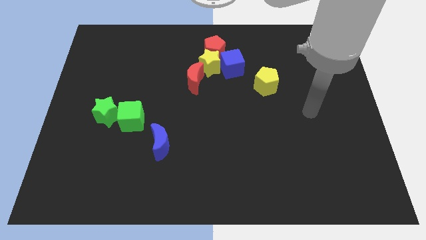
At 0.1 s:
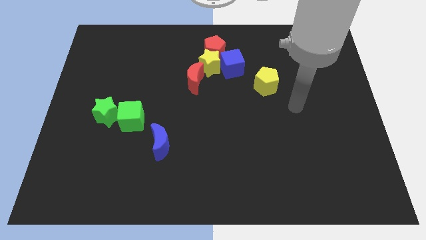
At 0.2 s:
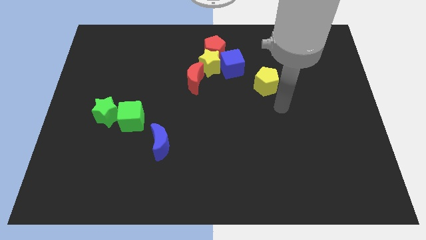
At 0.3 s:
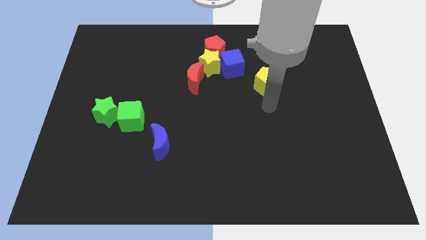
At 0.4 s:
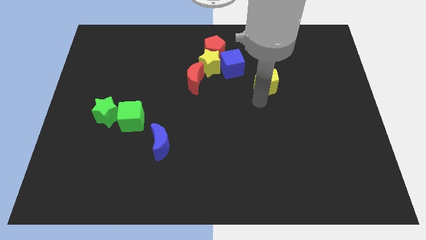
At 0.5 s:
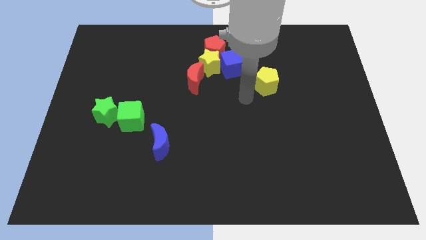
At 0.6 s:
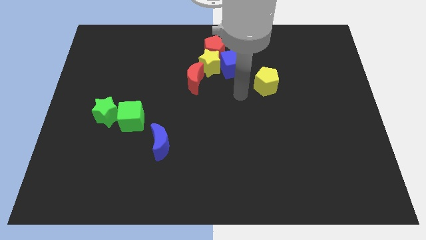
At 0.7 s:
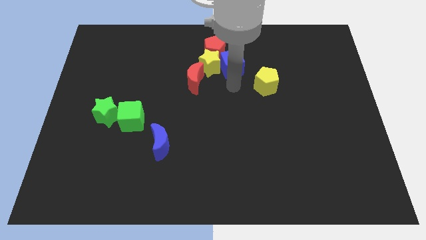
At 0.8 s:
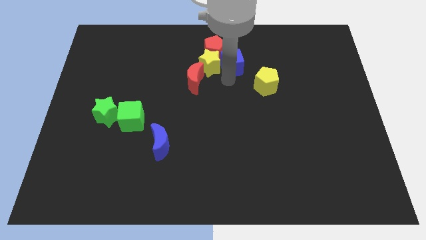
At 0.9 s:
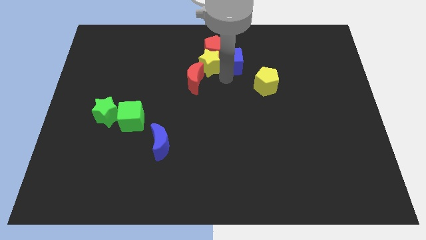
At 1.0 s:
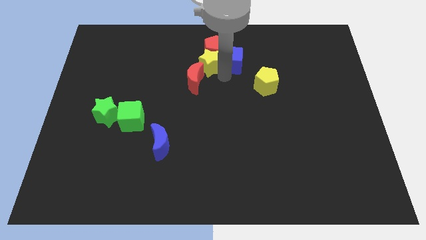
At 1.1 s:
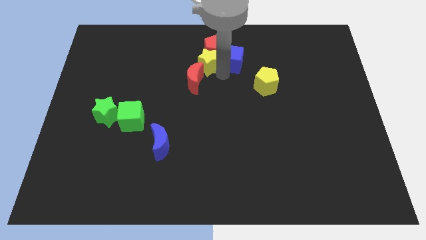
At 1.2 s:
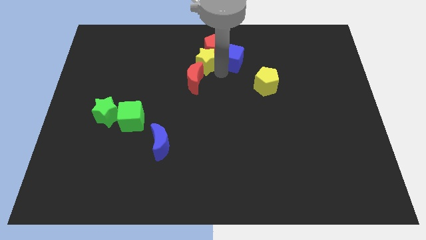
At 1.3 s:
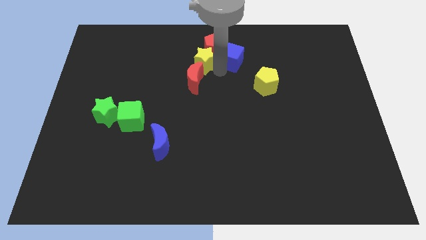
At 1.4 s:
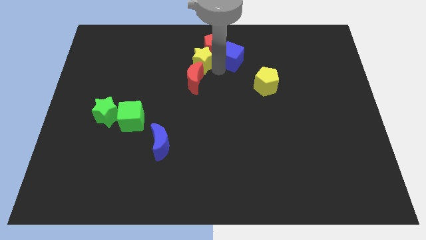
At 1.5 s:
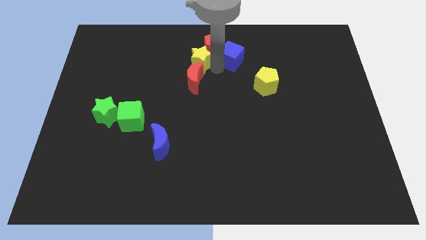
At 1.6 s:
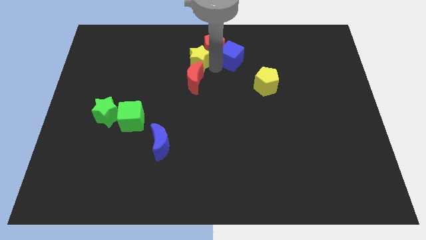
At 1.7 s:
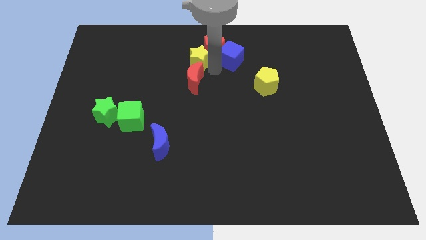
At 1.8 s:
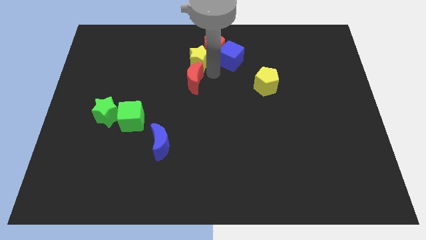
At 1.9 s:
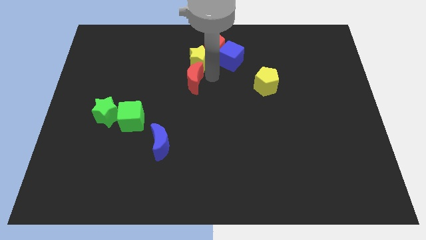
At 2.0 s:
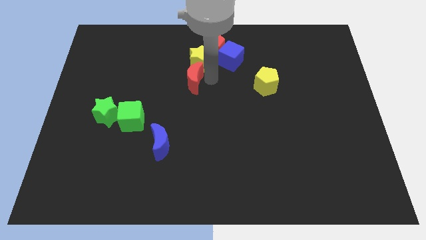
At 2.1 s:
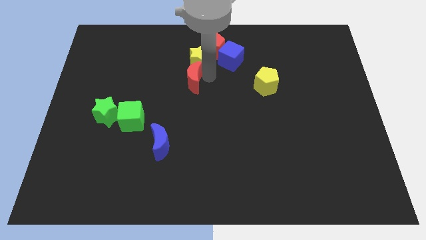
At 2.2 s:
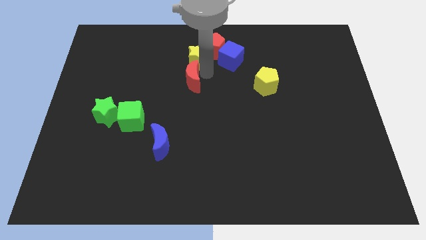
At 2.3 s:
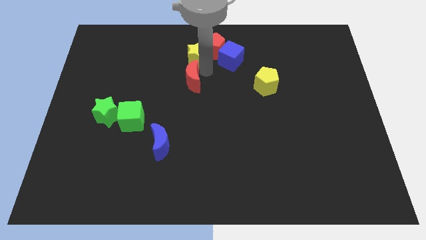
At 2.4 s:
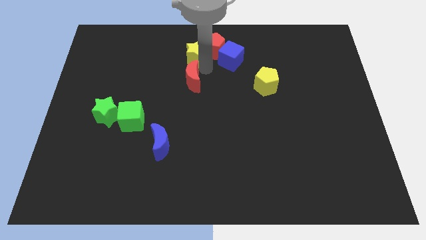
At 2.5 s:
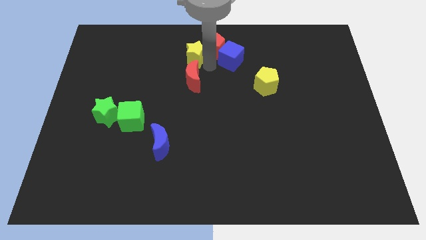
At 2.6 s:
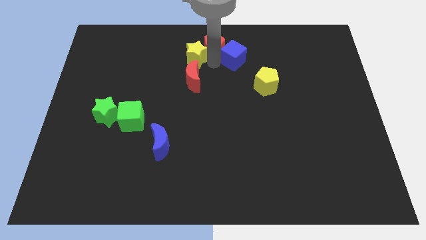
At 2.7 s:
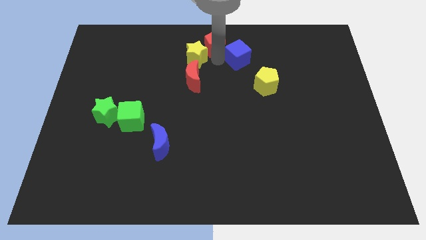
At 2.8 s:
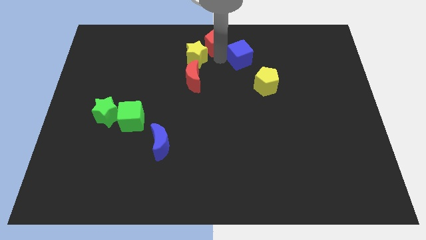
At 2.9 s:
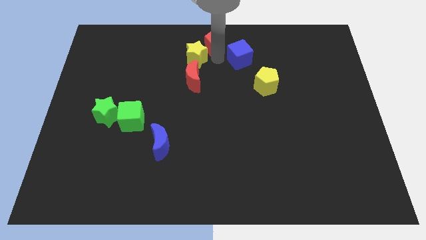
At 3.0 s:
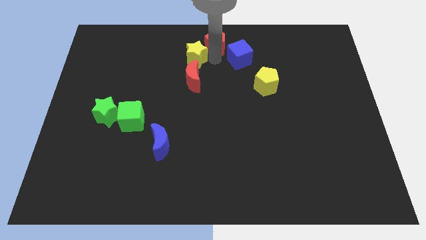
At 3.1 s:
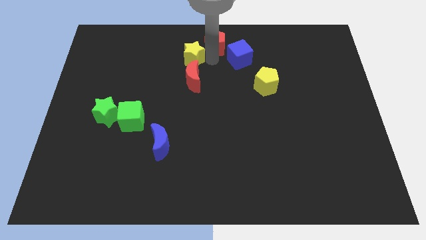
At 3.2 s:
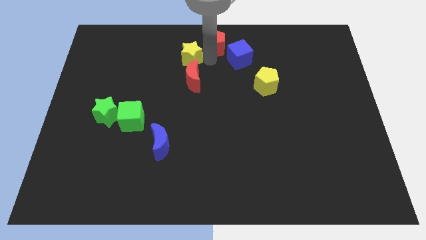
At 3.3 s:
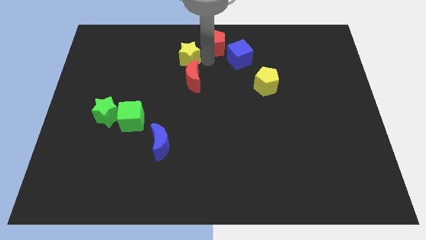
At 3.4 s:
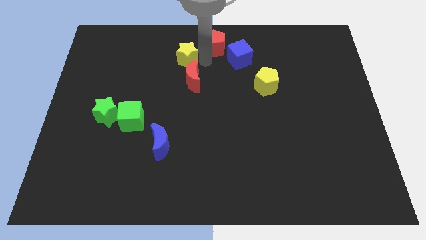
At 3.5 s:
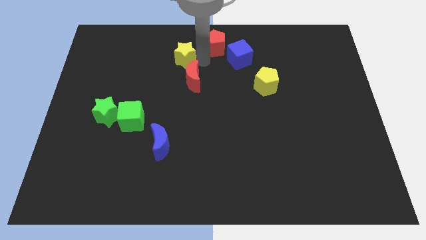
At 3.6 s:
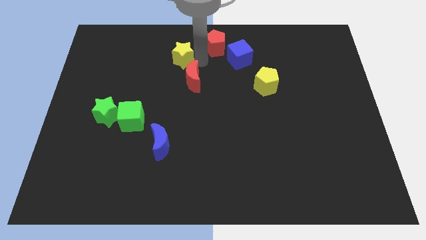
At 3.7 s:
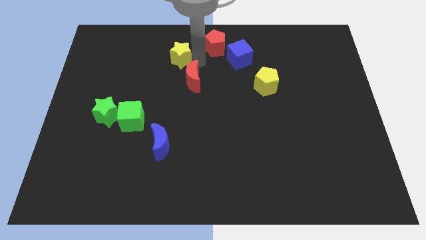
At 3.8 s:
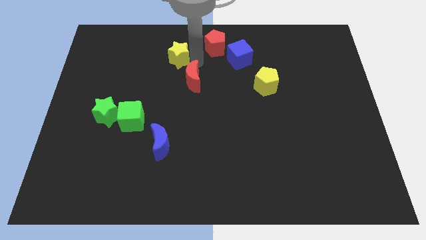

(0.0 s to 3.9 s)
move the yellow star away from the group of blocks

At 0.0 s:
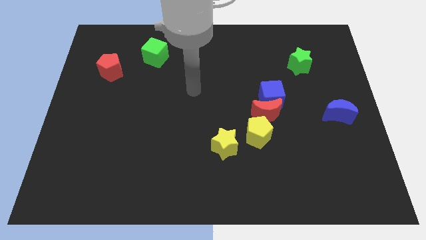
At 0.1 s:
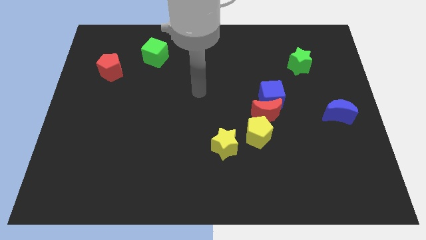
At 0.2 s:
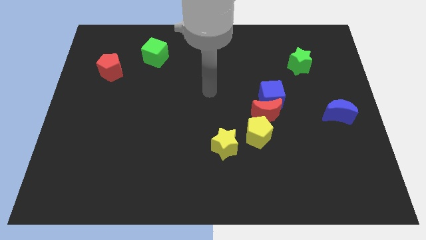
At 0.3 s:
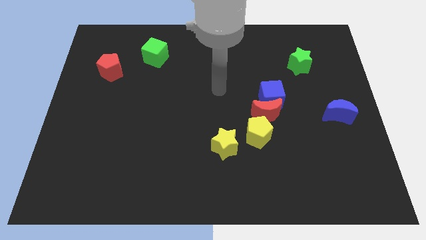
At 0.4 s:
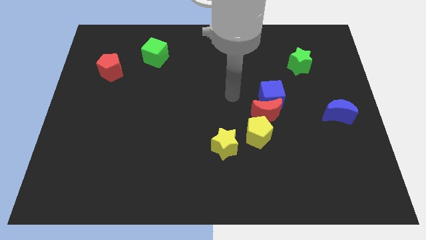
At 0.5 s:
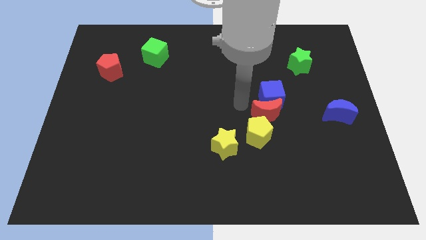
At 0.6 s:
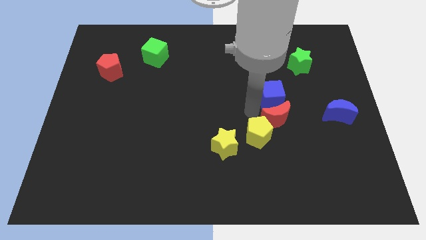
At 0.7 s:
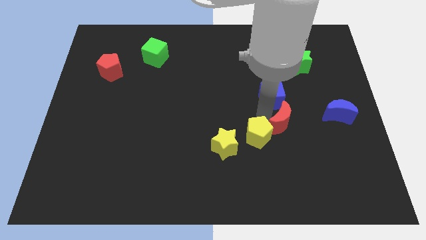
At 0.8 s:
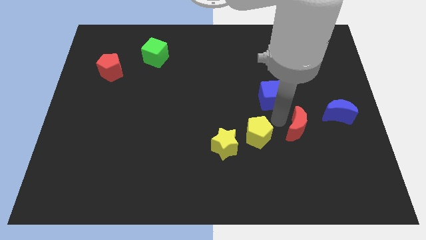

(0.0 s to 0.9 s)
pull the blue cube apart from the red moon

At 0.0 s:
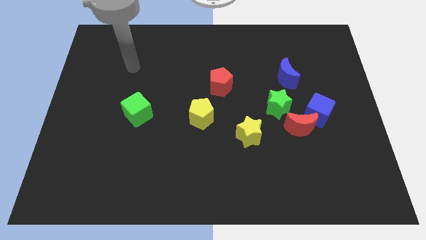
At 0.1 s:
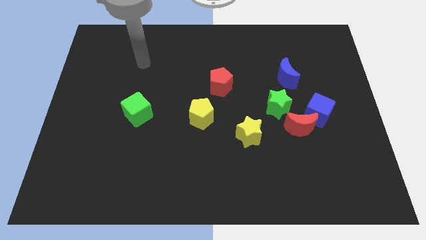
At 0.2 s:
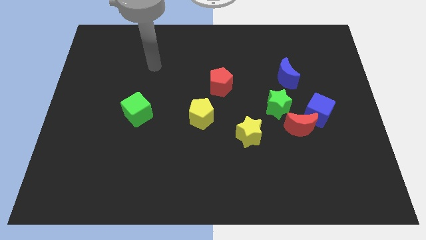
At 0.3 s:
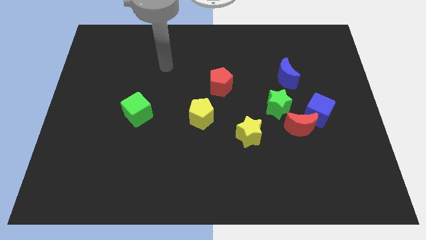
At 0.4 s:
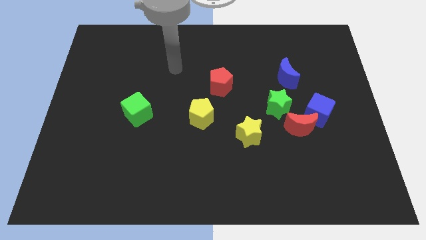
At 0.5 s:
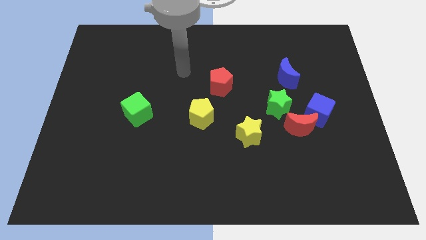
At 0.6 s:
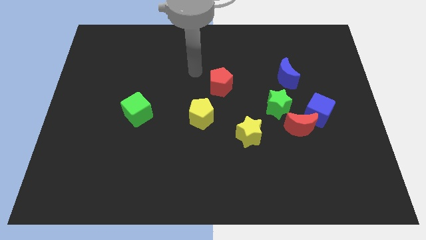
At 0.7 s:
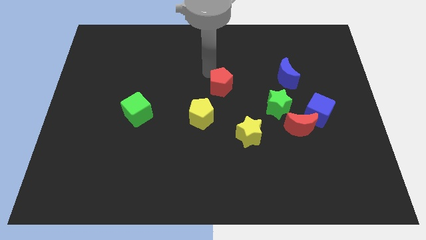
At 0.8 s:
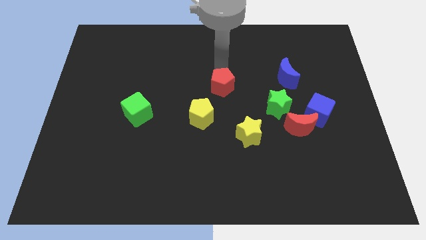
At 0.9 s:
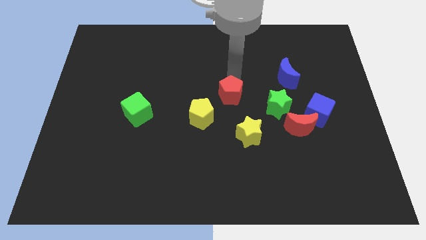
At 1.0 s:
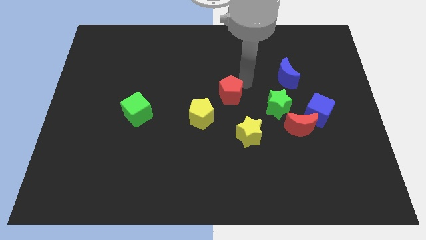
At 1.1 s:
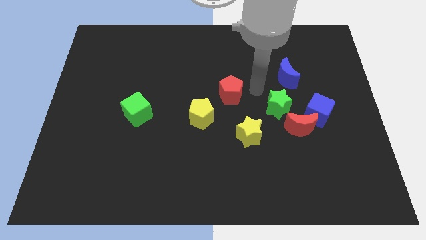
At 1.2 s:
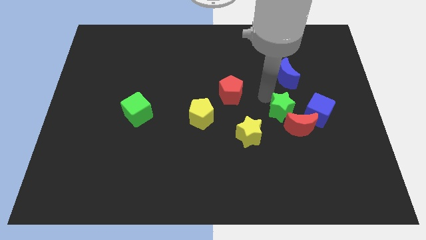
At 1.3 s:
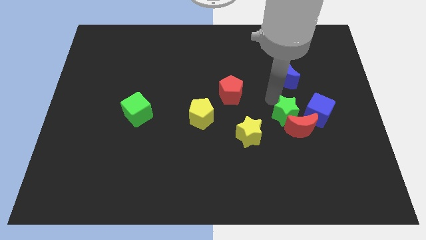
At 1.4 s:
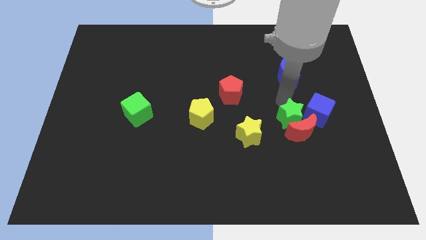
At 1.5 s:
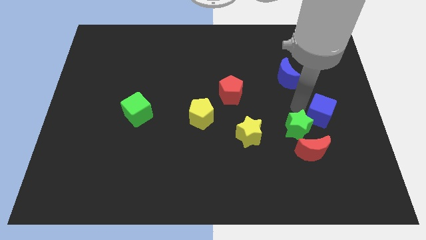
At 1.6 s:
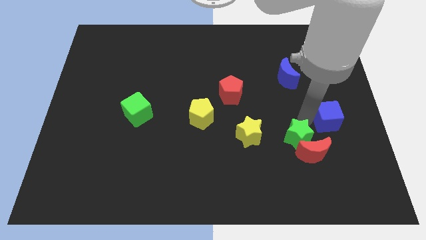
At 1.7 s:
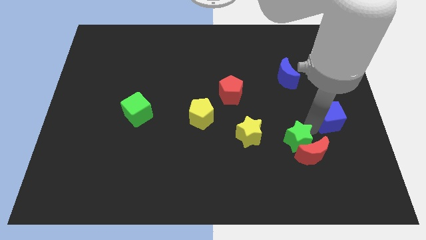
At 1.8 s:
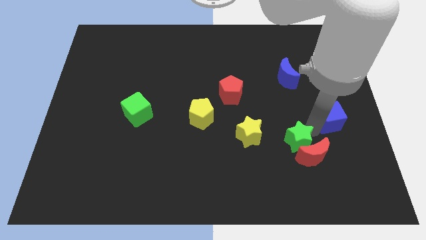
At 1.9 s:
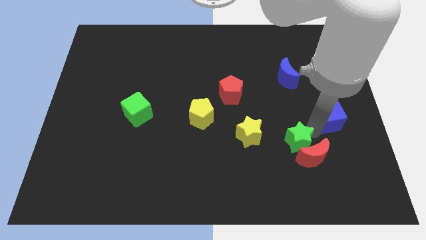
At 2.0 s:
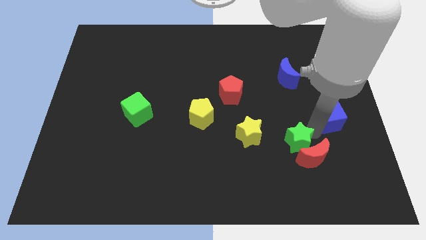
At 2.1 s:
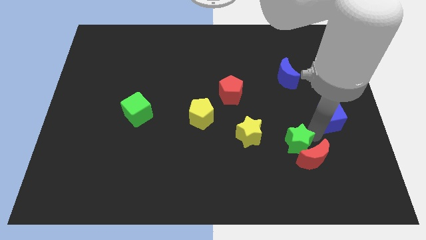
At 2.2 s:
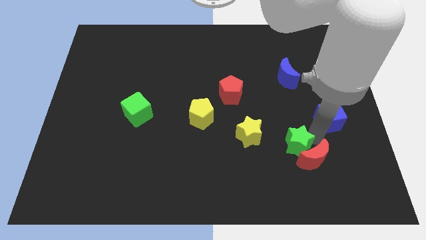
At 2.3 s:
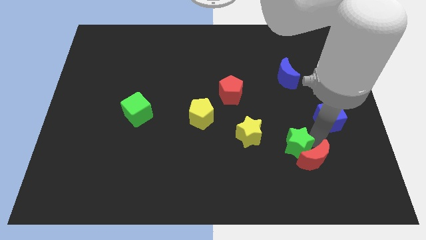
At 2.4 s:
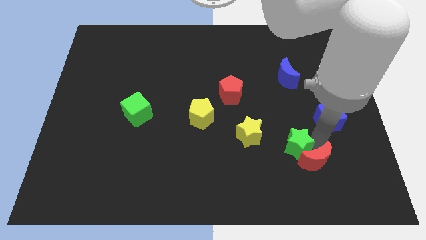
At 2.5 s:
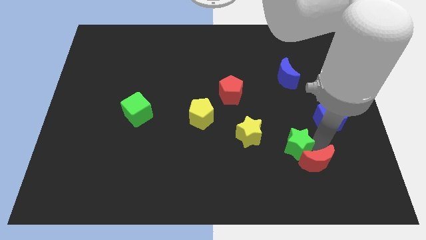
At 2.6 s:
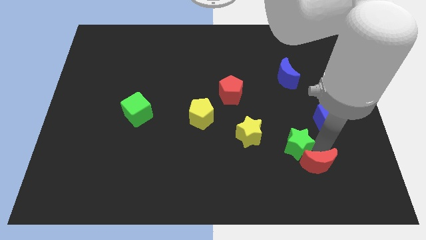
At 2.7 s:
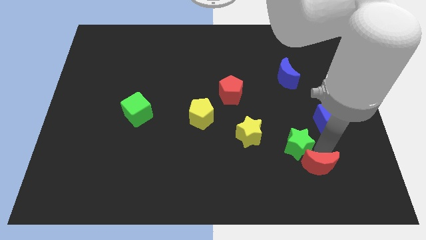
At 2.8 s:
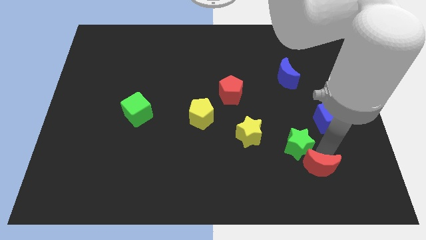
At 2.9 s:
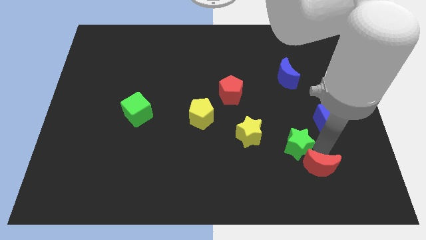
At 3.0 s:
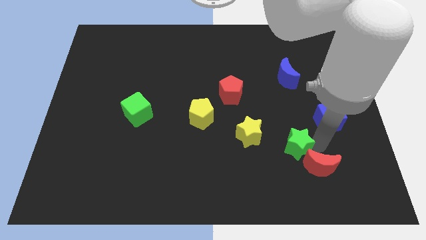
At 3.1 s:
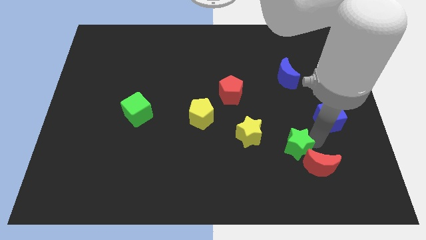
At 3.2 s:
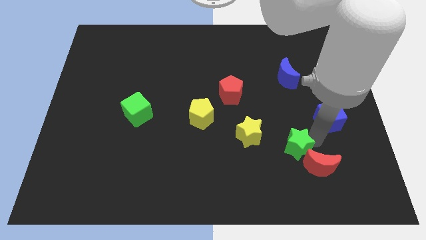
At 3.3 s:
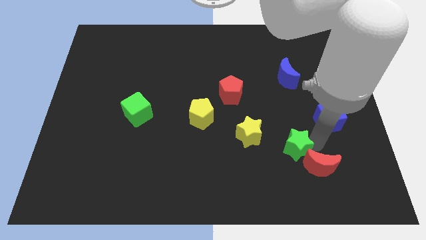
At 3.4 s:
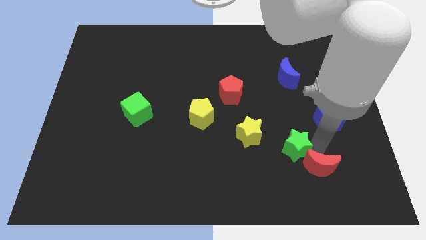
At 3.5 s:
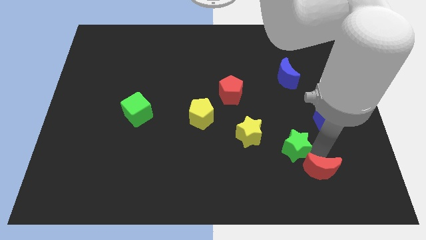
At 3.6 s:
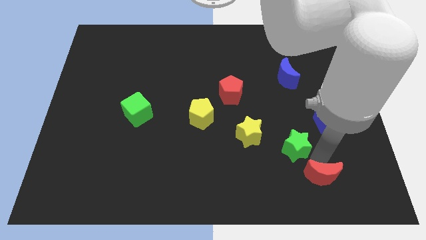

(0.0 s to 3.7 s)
move the red moon away from the blue cube and green star

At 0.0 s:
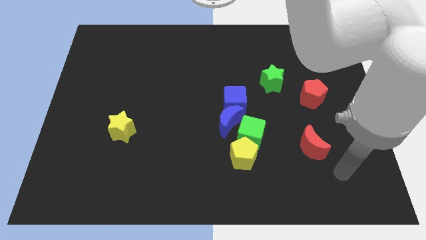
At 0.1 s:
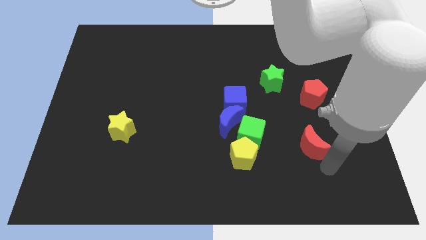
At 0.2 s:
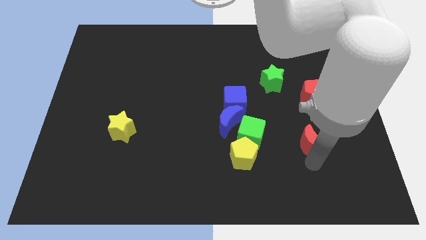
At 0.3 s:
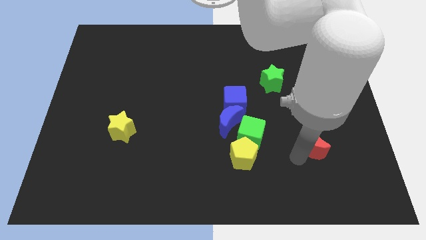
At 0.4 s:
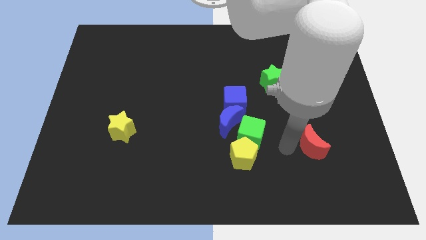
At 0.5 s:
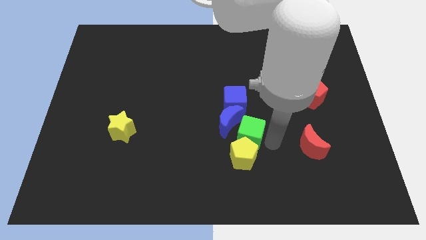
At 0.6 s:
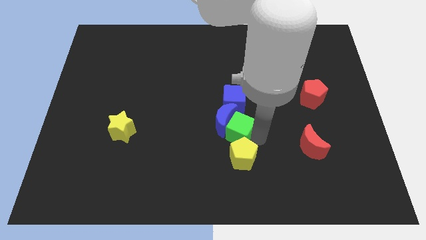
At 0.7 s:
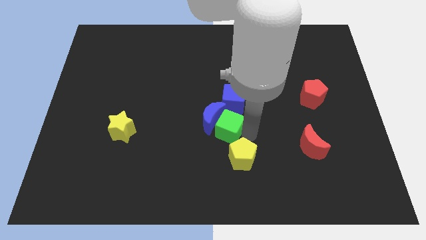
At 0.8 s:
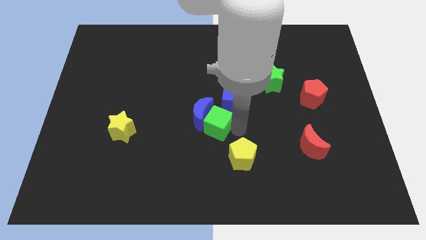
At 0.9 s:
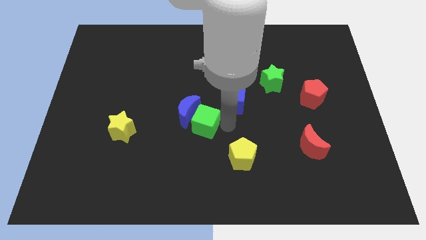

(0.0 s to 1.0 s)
move the blue moon away from the clump
